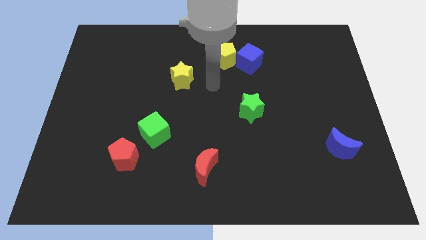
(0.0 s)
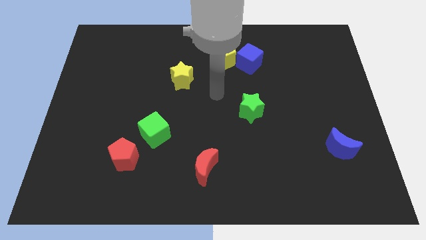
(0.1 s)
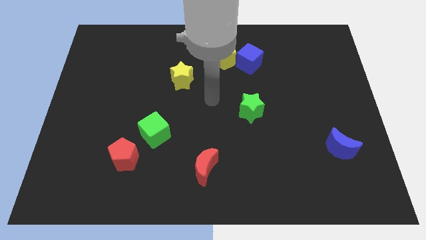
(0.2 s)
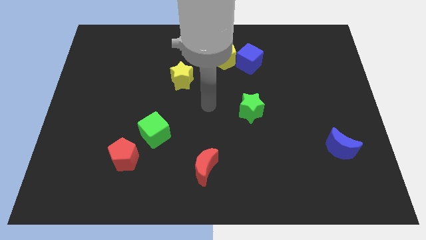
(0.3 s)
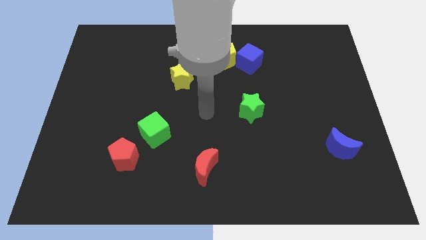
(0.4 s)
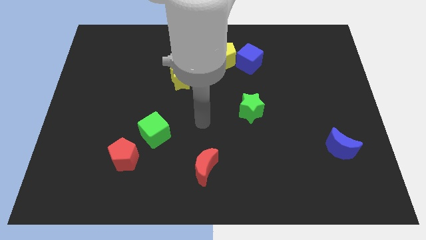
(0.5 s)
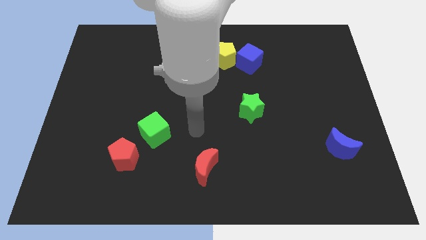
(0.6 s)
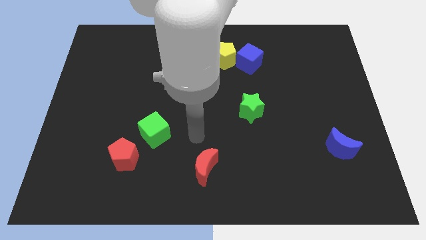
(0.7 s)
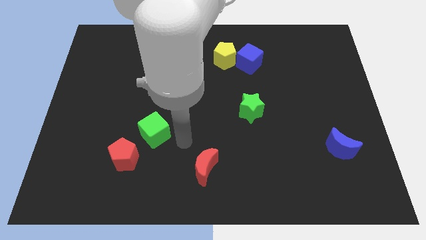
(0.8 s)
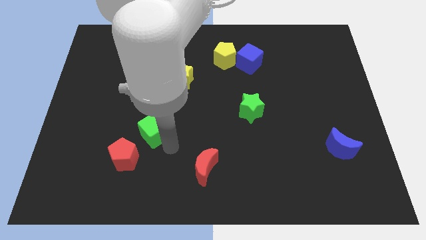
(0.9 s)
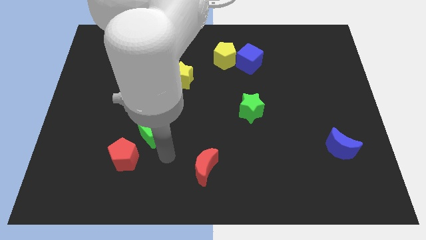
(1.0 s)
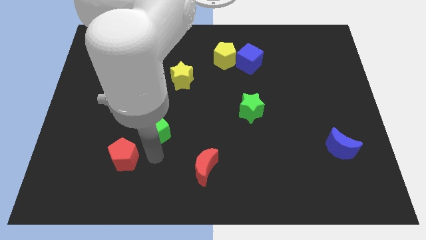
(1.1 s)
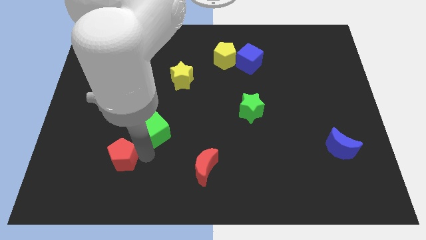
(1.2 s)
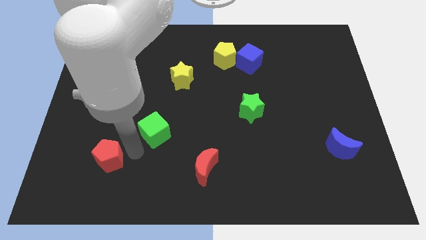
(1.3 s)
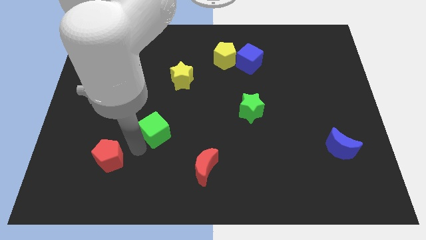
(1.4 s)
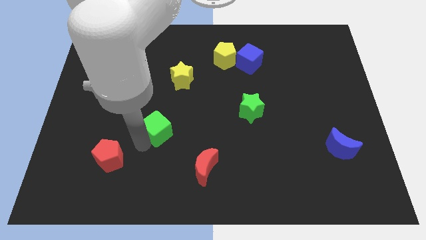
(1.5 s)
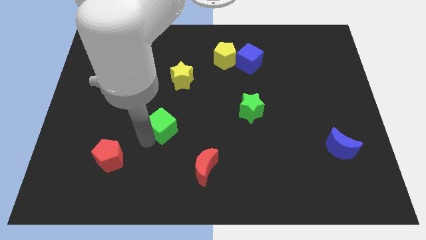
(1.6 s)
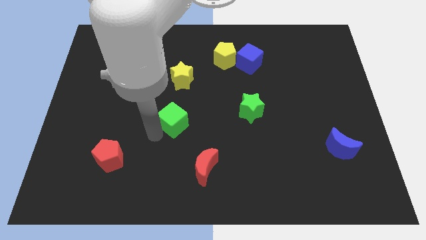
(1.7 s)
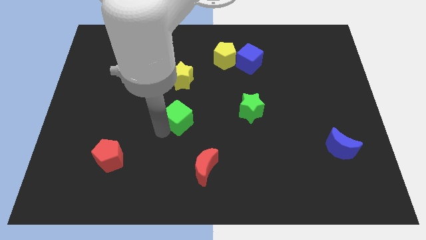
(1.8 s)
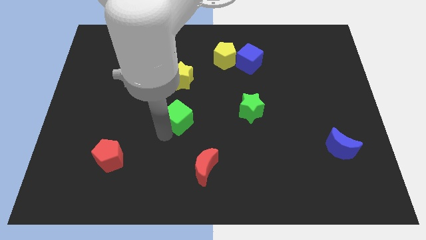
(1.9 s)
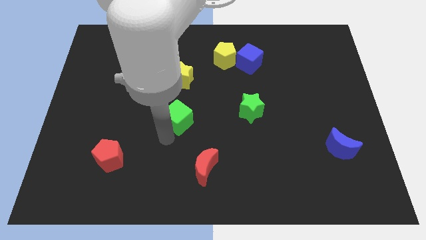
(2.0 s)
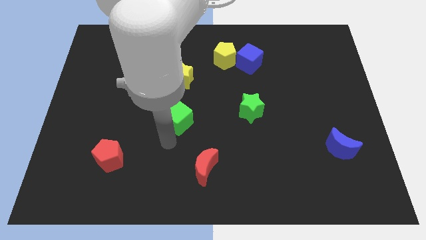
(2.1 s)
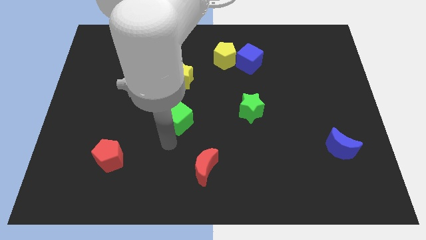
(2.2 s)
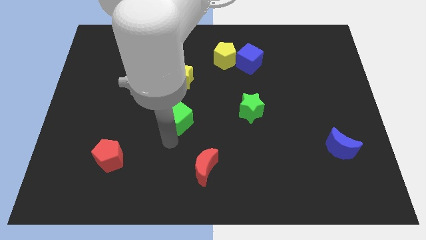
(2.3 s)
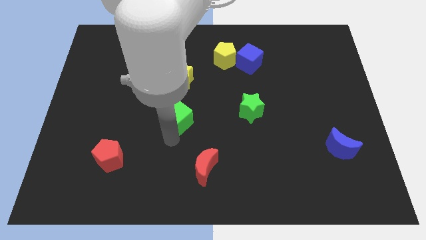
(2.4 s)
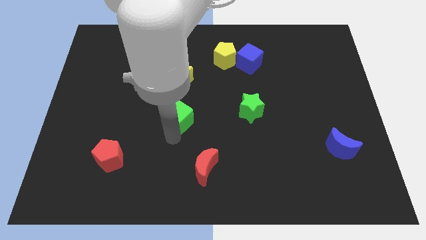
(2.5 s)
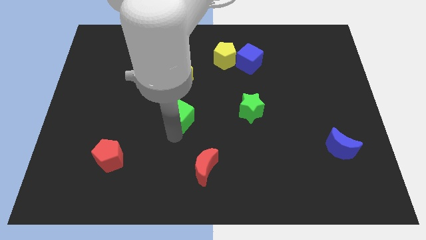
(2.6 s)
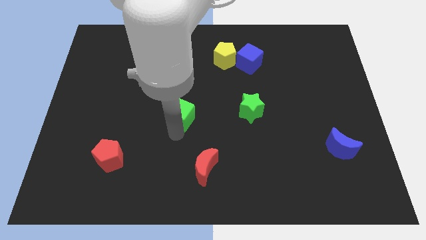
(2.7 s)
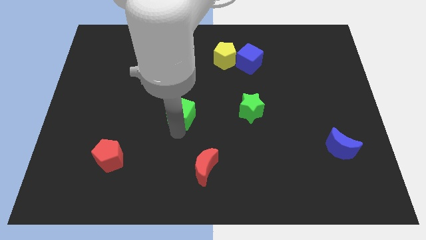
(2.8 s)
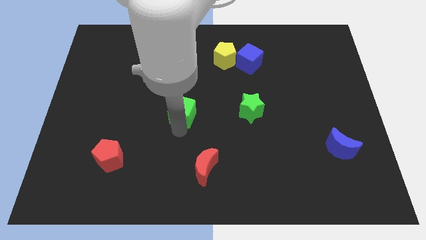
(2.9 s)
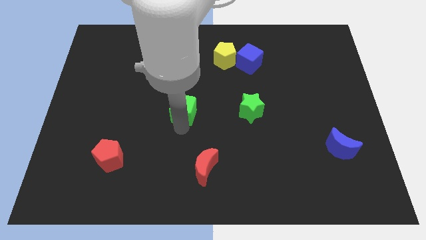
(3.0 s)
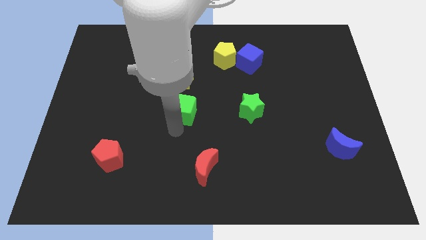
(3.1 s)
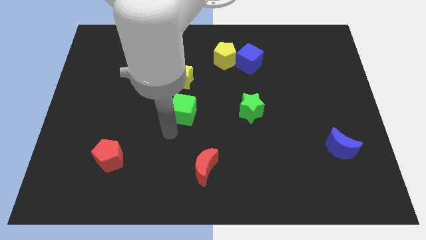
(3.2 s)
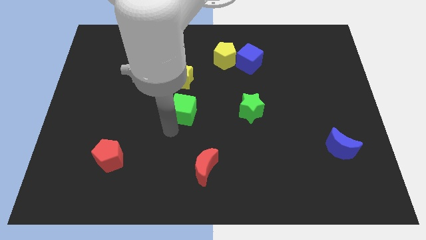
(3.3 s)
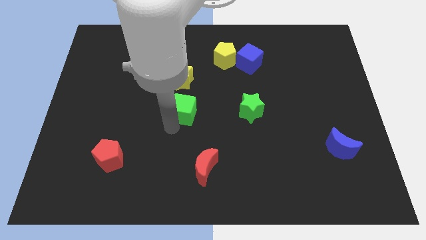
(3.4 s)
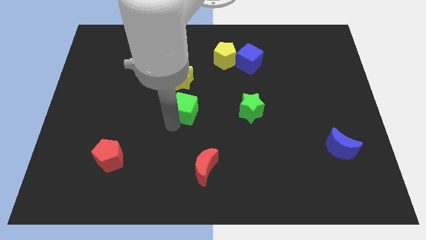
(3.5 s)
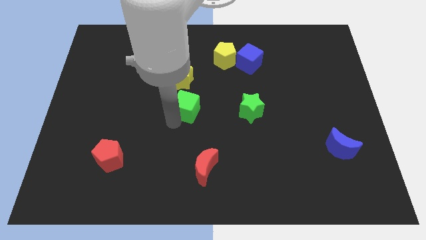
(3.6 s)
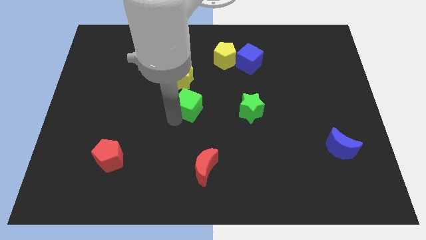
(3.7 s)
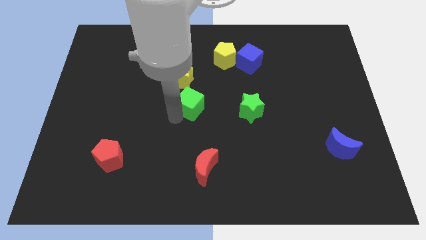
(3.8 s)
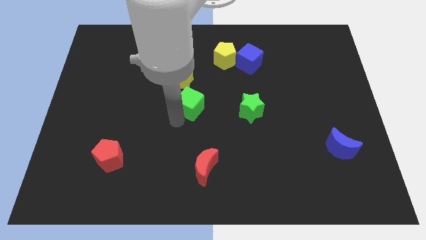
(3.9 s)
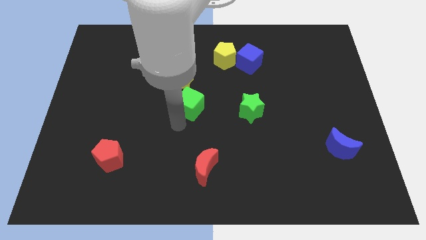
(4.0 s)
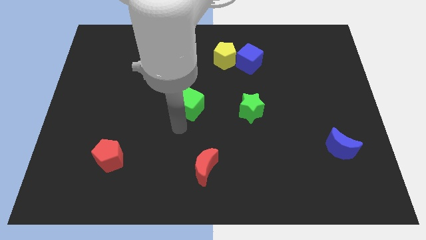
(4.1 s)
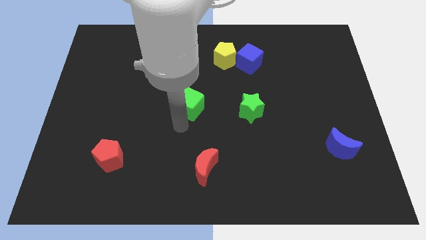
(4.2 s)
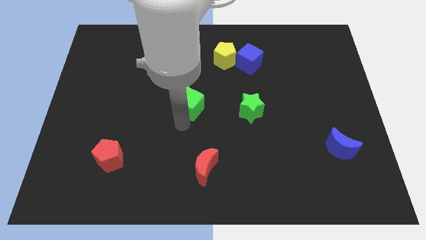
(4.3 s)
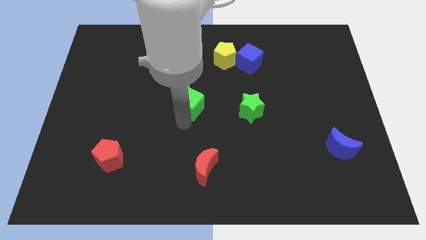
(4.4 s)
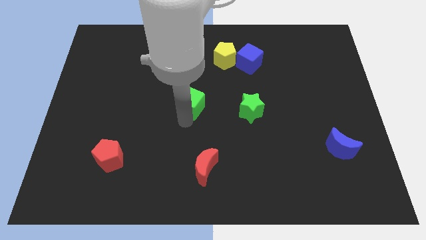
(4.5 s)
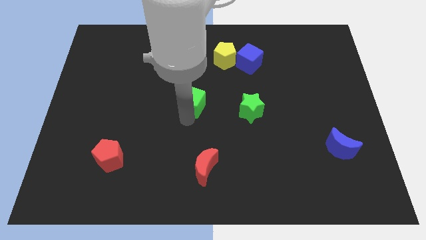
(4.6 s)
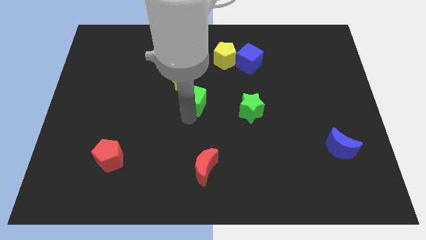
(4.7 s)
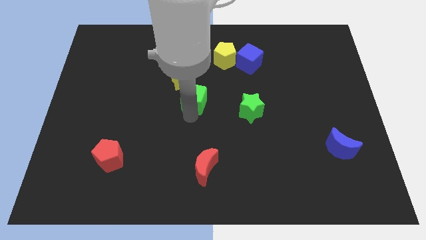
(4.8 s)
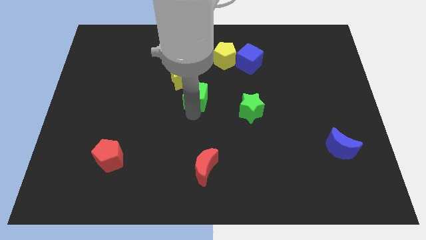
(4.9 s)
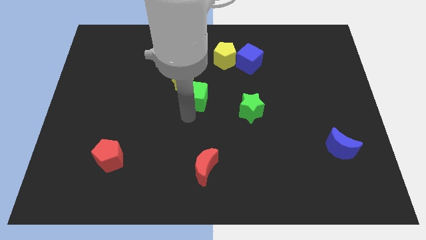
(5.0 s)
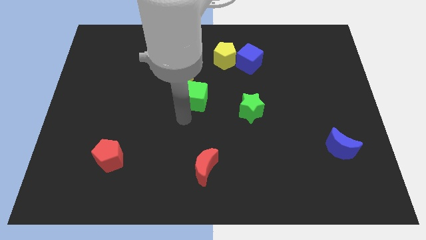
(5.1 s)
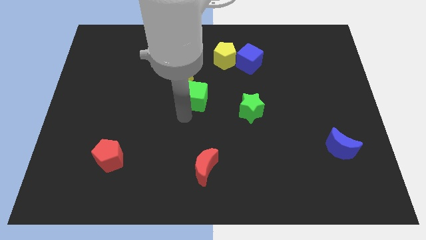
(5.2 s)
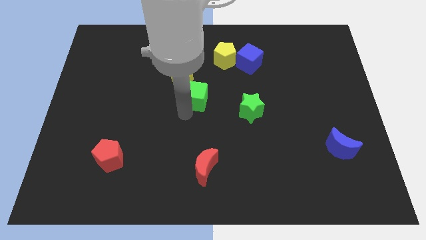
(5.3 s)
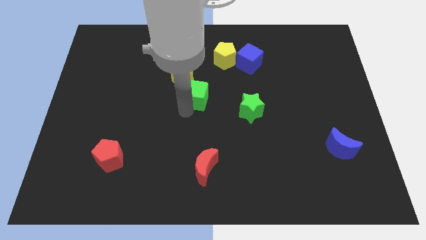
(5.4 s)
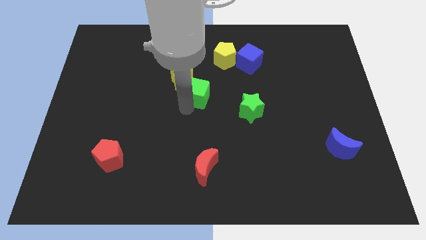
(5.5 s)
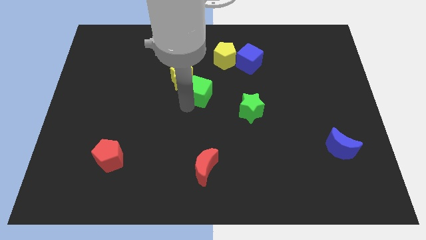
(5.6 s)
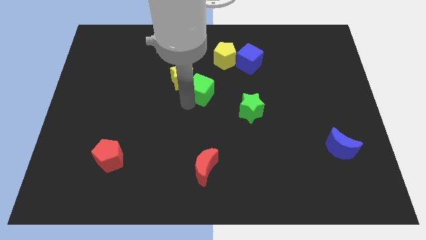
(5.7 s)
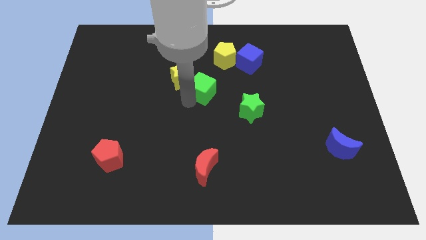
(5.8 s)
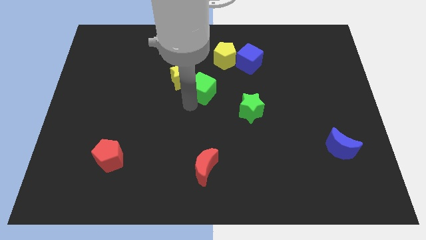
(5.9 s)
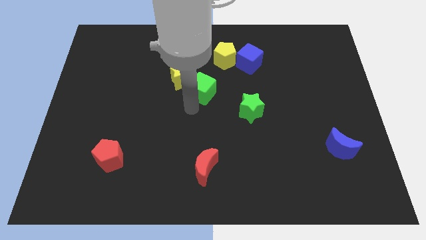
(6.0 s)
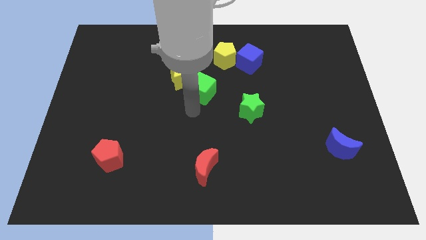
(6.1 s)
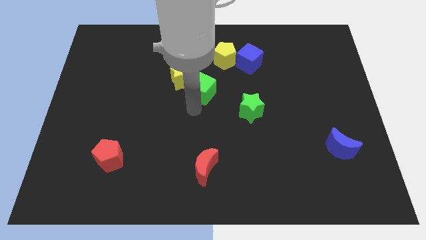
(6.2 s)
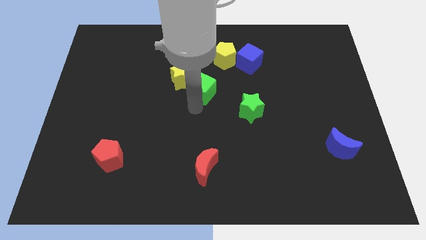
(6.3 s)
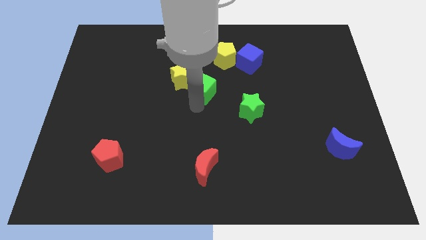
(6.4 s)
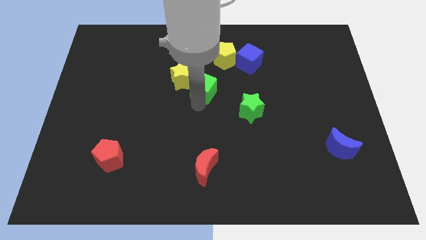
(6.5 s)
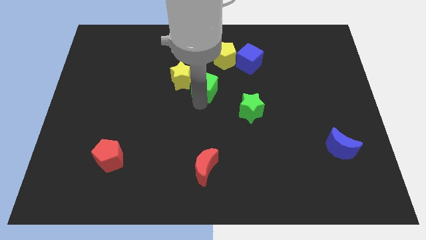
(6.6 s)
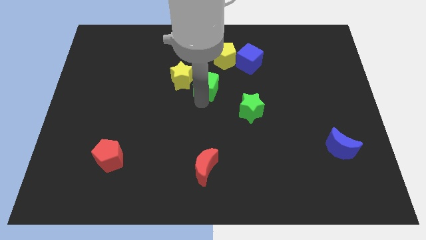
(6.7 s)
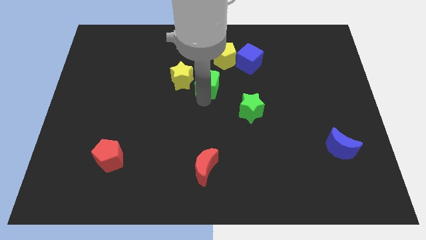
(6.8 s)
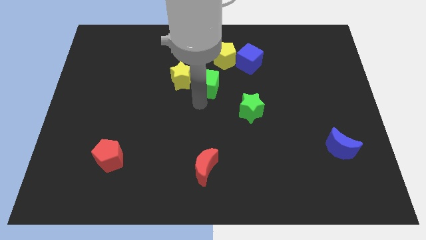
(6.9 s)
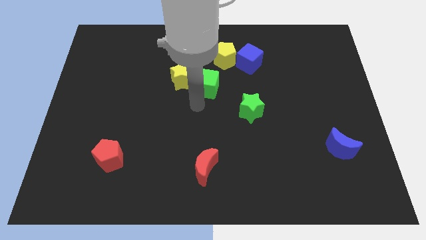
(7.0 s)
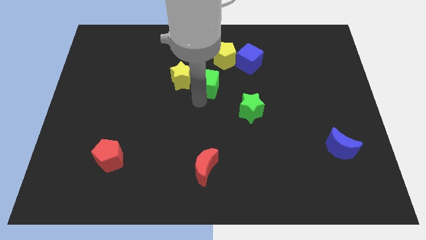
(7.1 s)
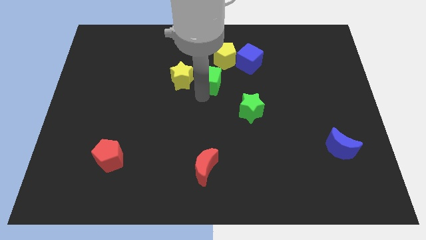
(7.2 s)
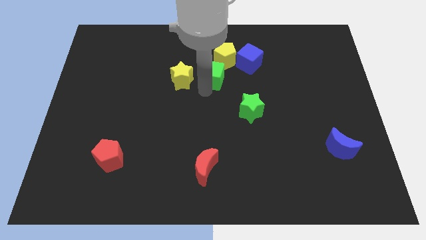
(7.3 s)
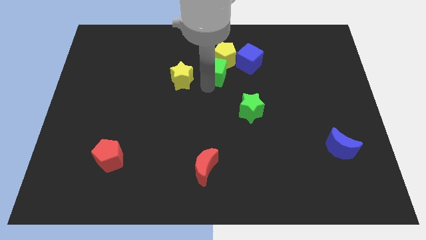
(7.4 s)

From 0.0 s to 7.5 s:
put the green cube towards the yellow pentagon

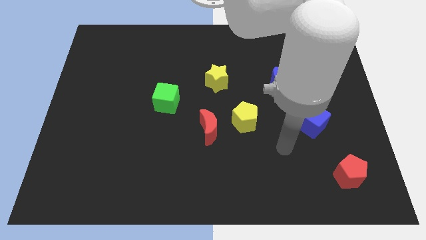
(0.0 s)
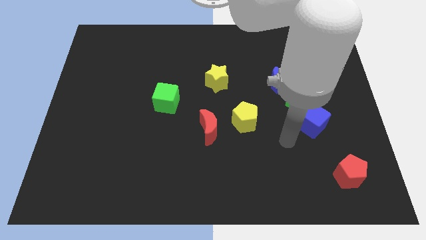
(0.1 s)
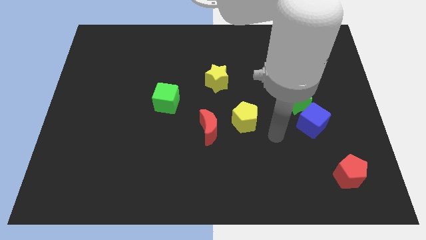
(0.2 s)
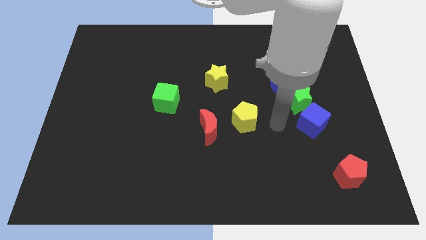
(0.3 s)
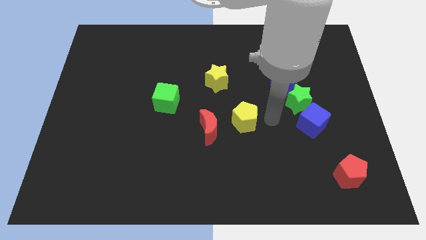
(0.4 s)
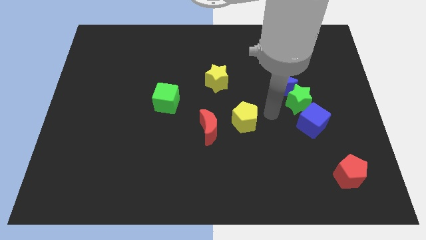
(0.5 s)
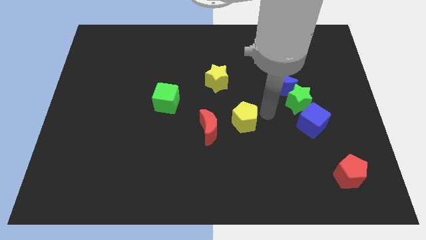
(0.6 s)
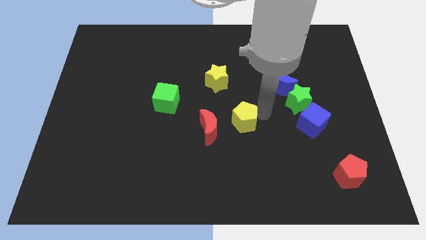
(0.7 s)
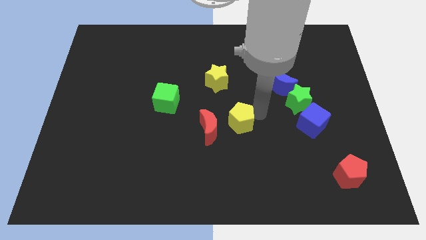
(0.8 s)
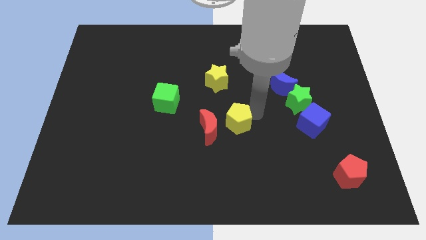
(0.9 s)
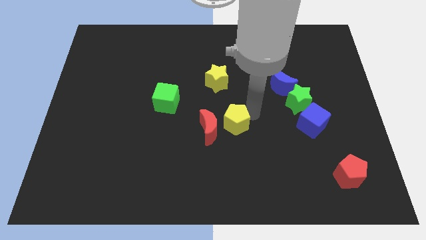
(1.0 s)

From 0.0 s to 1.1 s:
put the yellow pentagon next to the red moon
